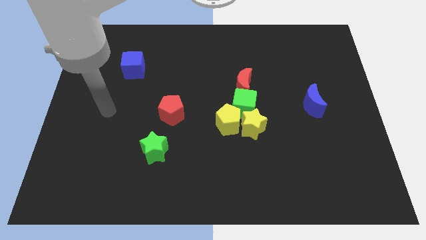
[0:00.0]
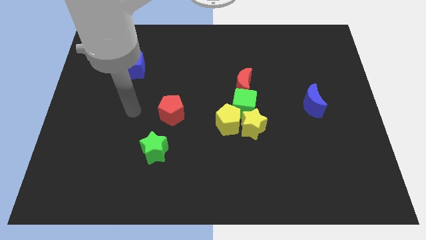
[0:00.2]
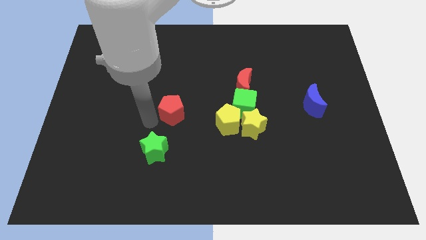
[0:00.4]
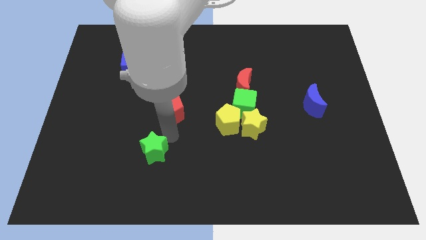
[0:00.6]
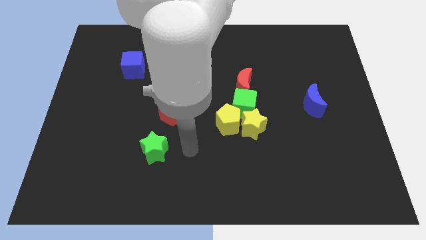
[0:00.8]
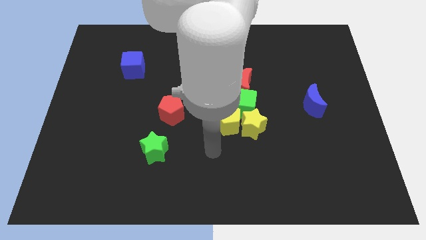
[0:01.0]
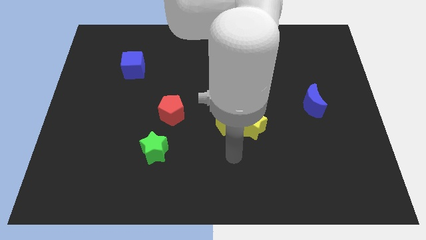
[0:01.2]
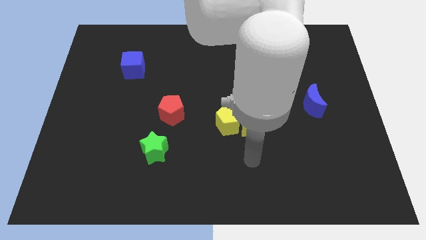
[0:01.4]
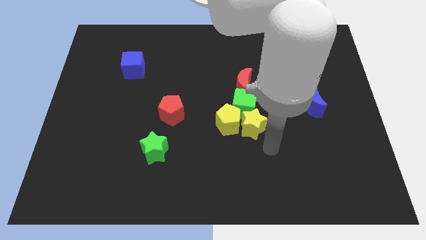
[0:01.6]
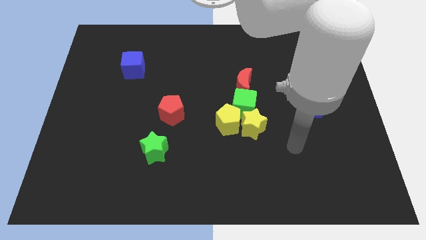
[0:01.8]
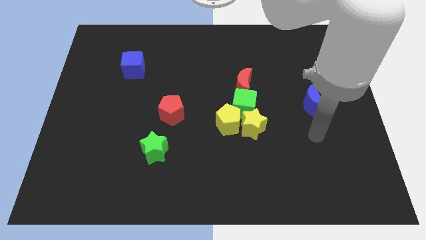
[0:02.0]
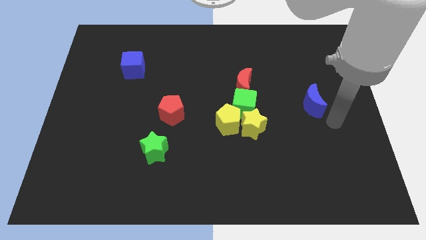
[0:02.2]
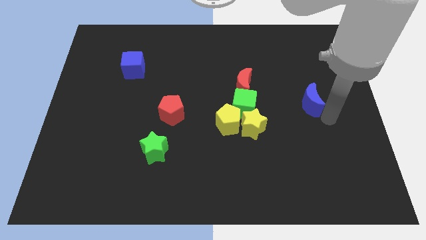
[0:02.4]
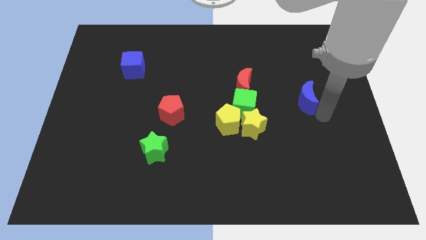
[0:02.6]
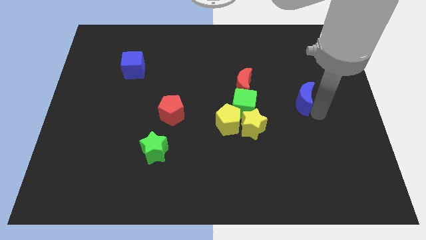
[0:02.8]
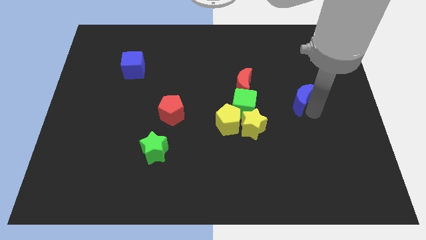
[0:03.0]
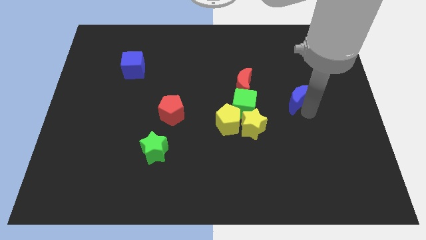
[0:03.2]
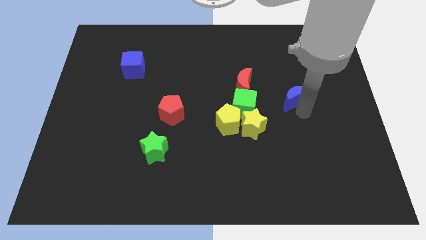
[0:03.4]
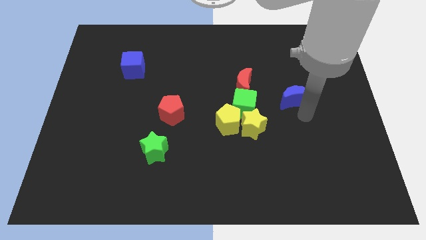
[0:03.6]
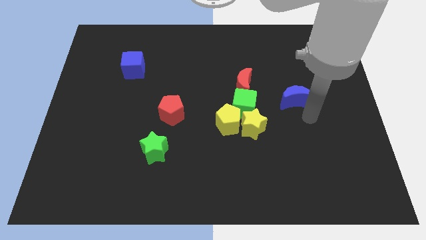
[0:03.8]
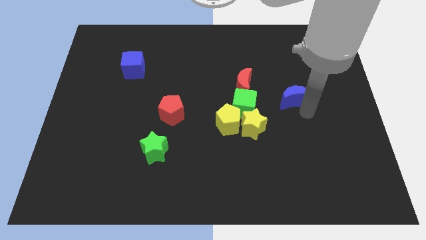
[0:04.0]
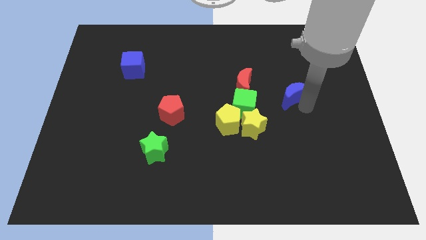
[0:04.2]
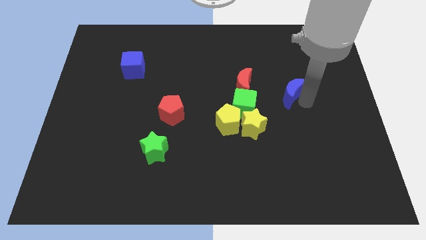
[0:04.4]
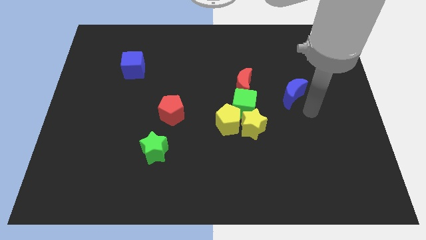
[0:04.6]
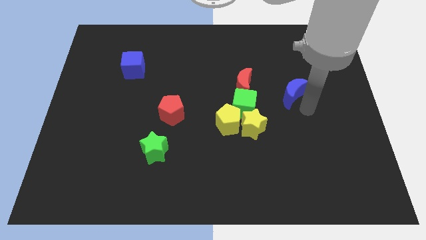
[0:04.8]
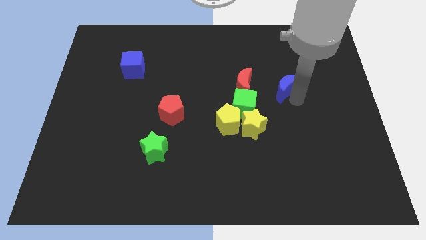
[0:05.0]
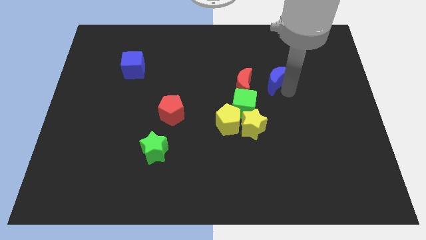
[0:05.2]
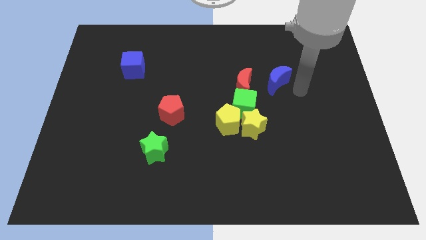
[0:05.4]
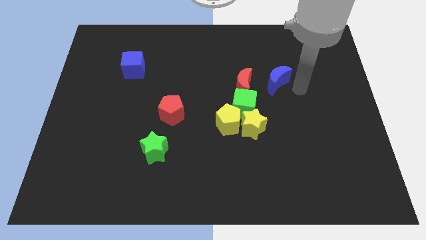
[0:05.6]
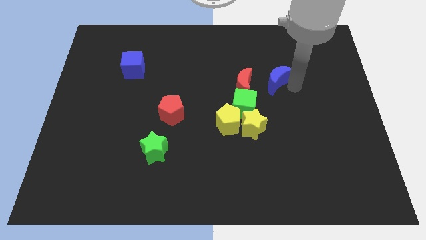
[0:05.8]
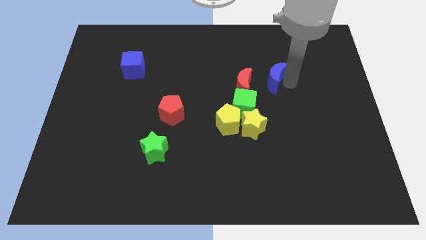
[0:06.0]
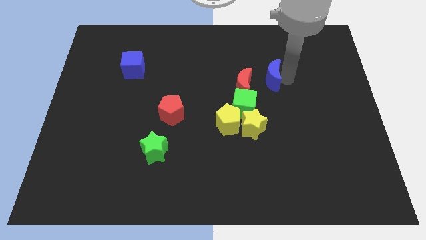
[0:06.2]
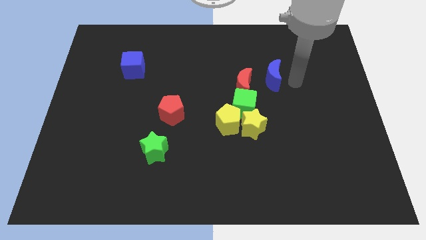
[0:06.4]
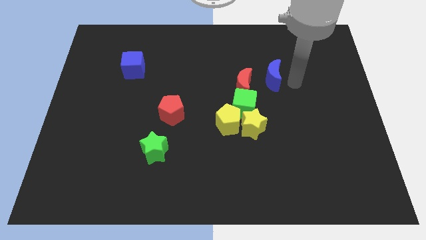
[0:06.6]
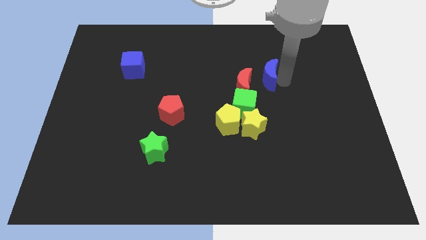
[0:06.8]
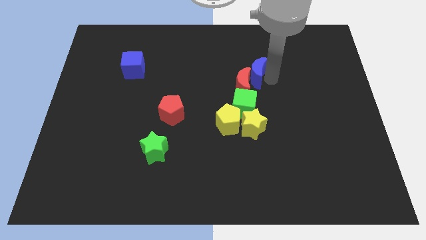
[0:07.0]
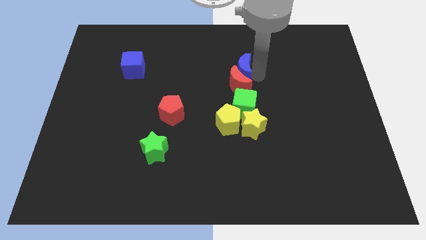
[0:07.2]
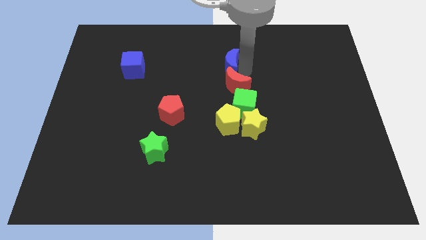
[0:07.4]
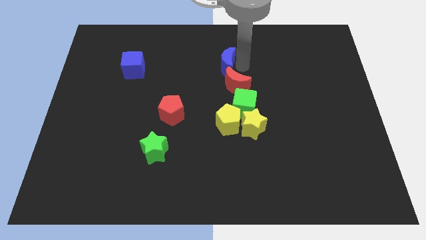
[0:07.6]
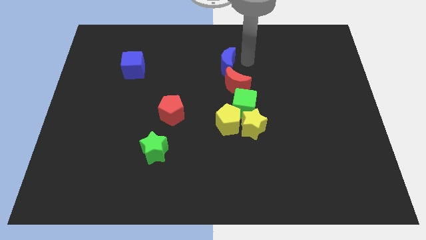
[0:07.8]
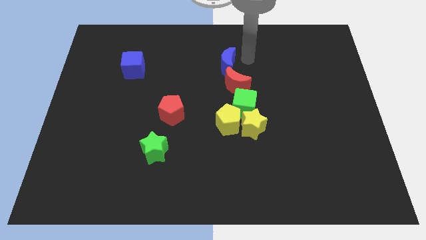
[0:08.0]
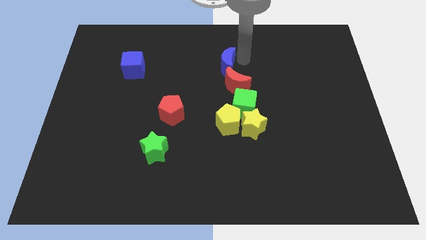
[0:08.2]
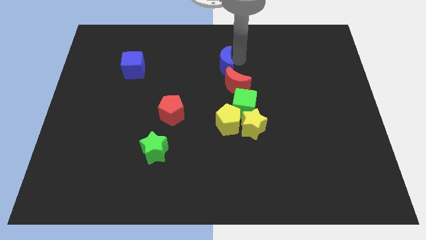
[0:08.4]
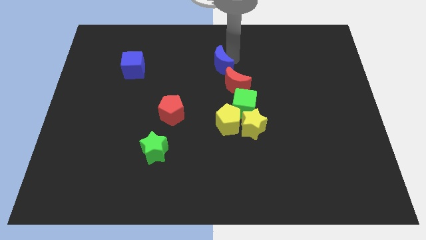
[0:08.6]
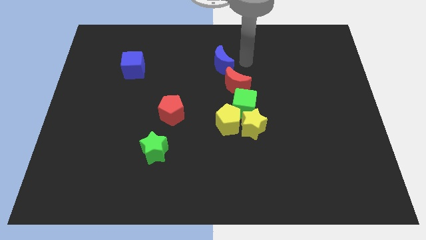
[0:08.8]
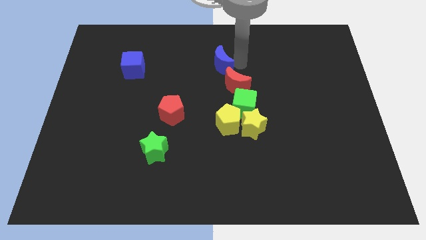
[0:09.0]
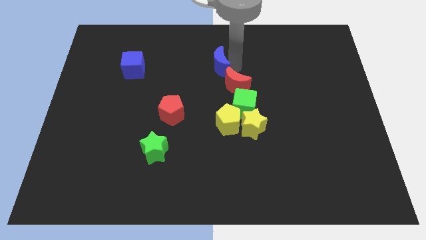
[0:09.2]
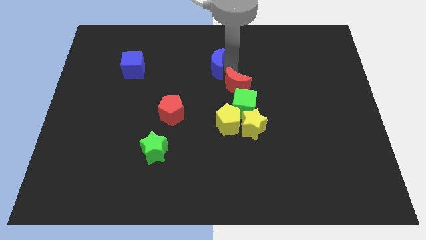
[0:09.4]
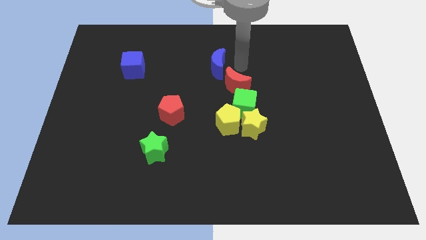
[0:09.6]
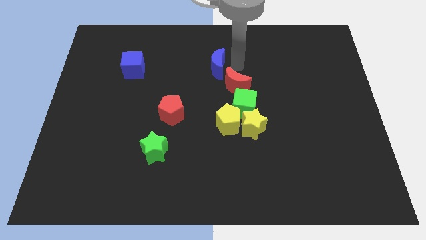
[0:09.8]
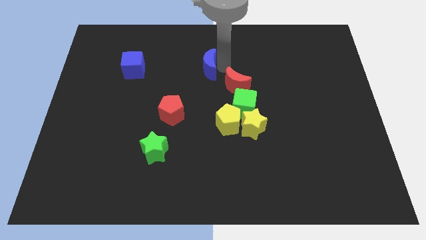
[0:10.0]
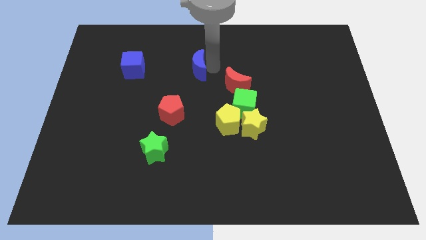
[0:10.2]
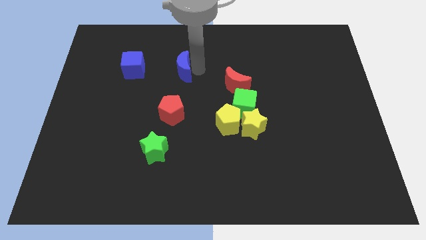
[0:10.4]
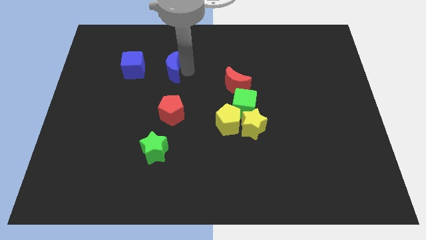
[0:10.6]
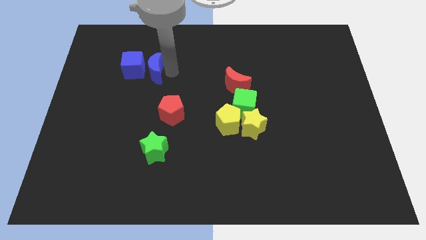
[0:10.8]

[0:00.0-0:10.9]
move the blue moon close to the blue cube

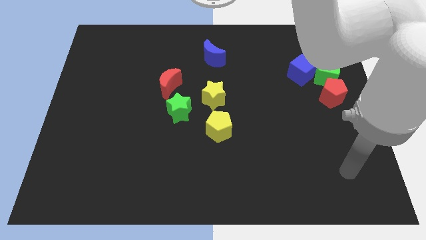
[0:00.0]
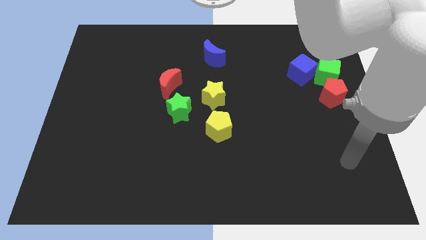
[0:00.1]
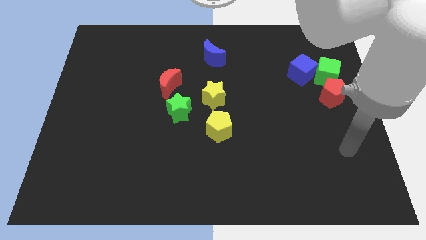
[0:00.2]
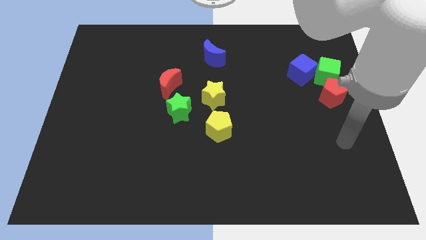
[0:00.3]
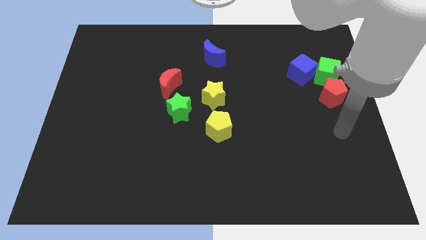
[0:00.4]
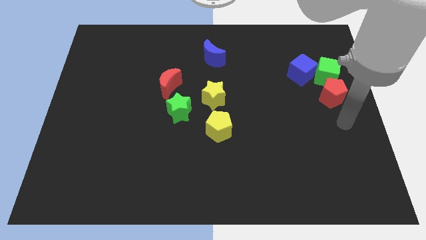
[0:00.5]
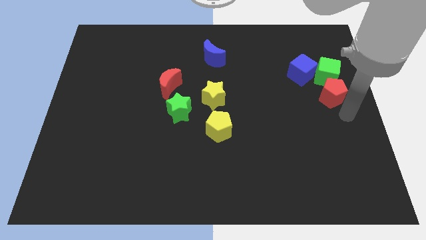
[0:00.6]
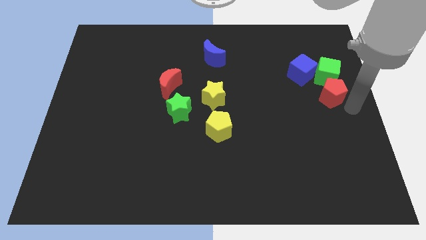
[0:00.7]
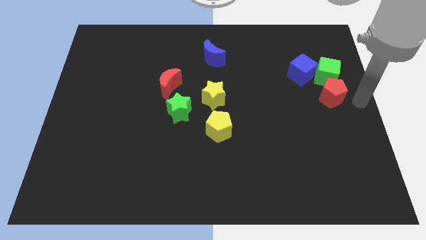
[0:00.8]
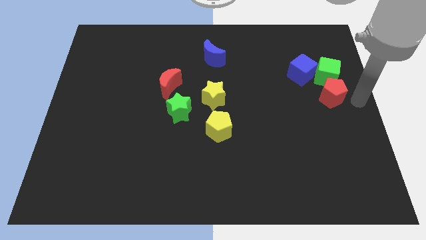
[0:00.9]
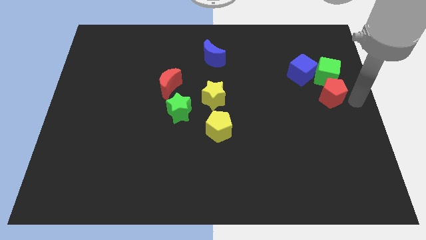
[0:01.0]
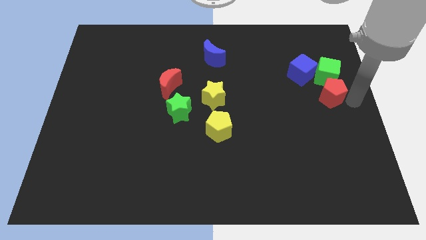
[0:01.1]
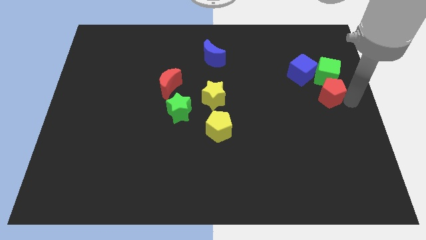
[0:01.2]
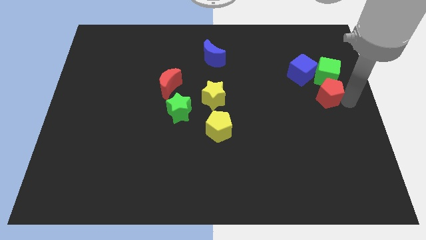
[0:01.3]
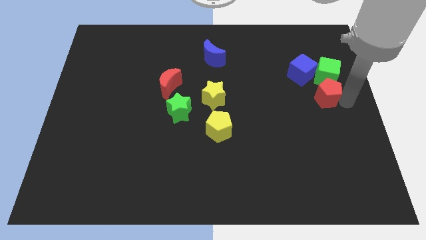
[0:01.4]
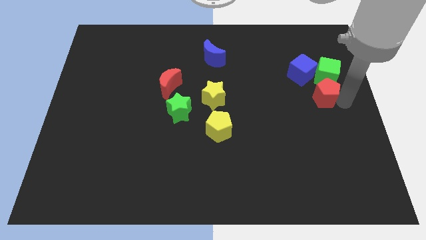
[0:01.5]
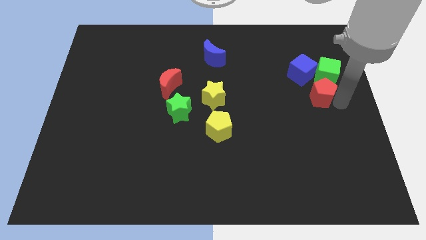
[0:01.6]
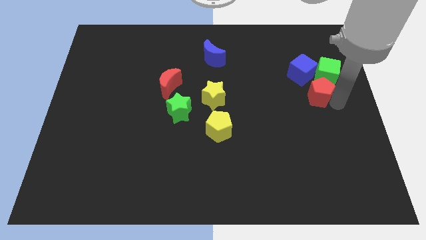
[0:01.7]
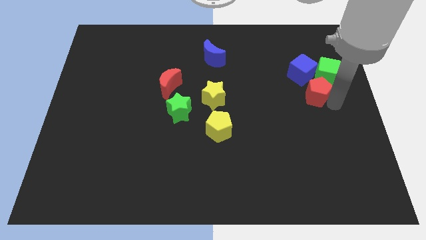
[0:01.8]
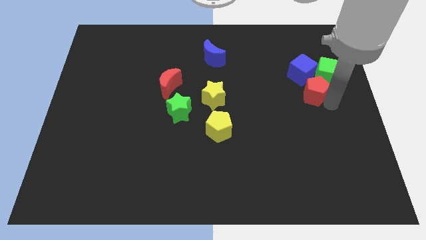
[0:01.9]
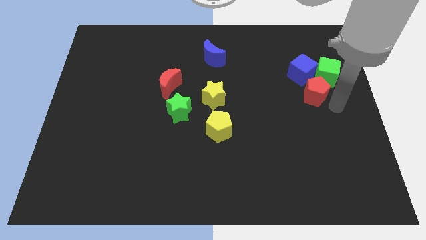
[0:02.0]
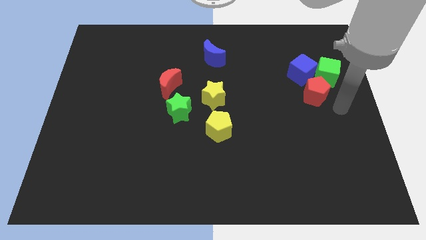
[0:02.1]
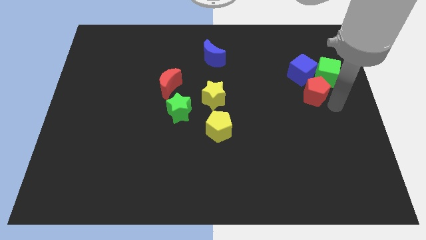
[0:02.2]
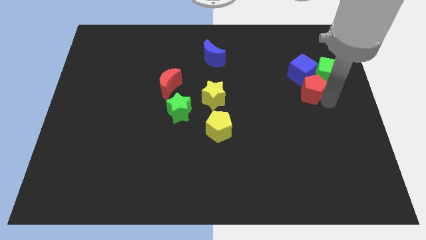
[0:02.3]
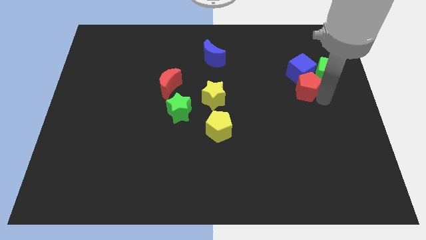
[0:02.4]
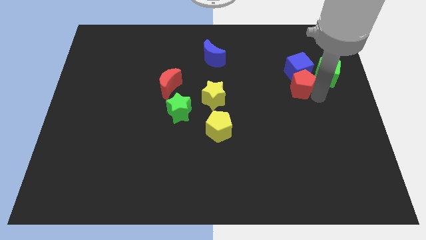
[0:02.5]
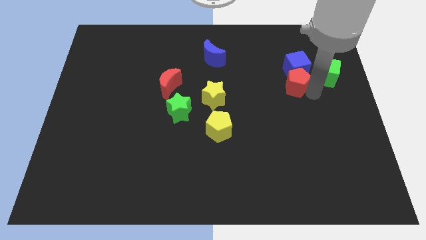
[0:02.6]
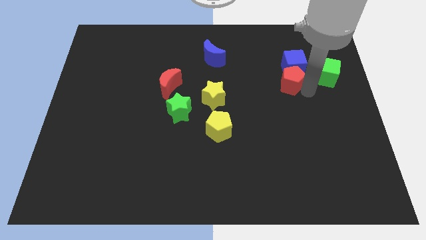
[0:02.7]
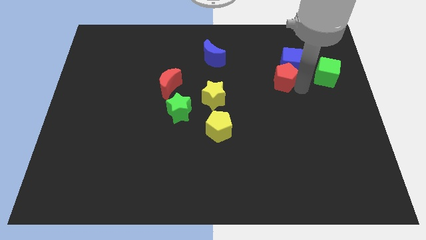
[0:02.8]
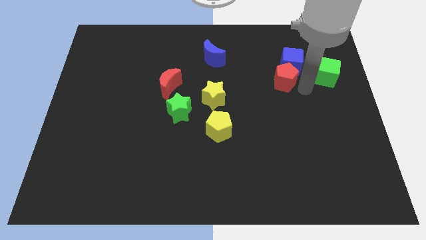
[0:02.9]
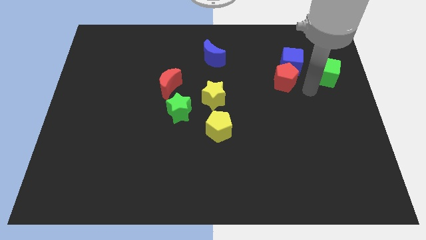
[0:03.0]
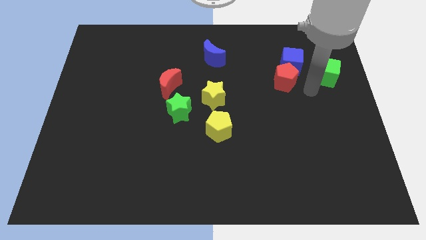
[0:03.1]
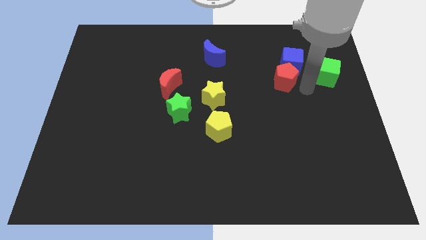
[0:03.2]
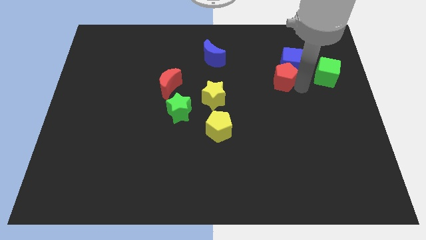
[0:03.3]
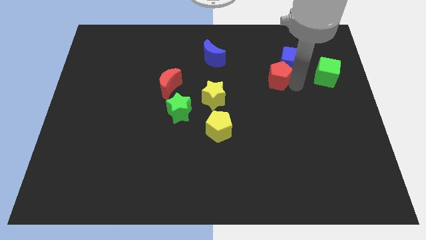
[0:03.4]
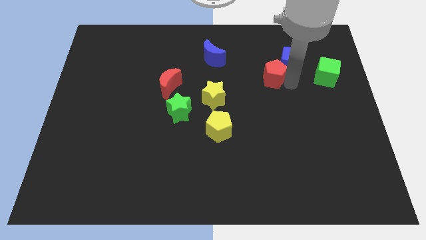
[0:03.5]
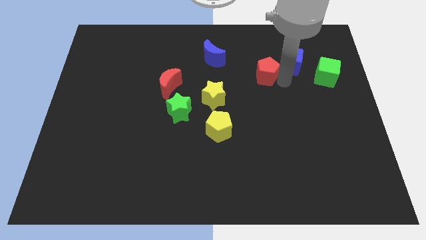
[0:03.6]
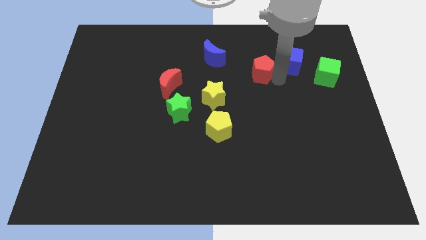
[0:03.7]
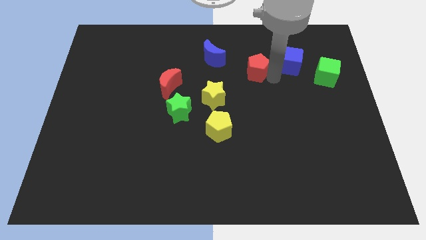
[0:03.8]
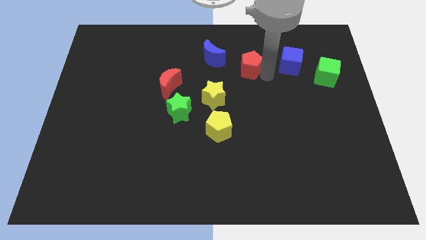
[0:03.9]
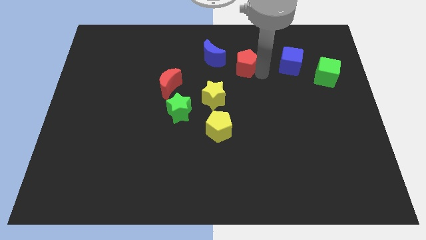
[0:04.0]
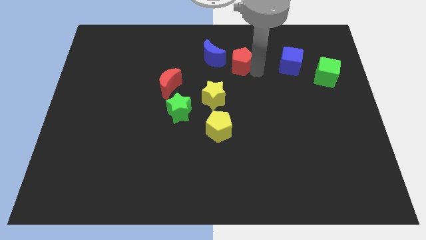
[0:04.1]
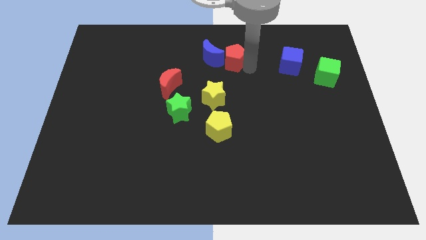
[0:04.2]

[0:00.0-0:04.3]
put the red pentagon to the blue moon
